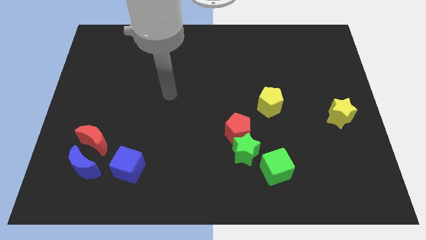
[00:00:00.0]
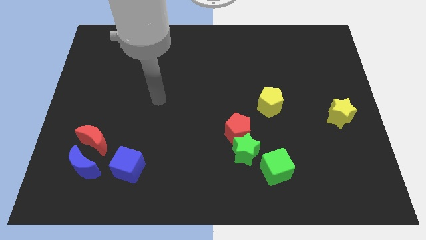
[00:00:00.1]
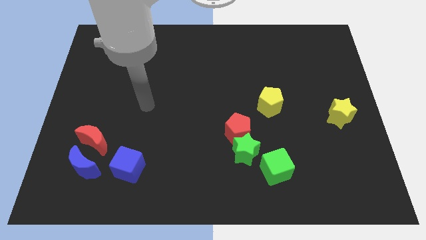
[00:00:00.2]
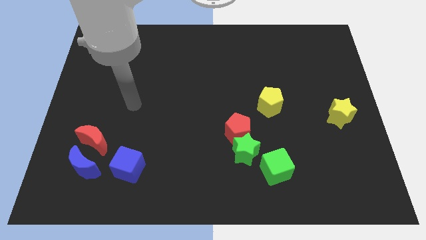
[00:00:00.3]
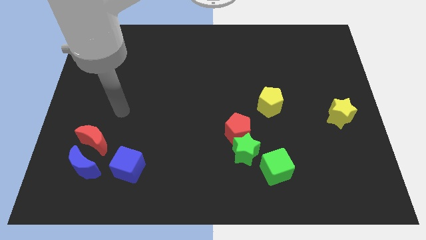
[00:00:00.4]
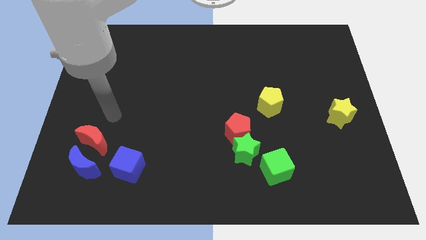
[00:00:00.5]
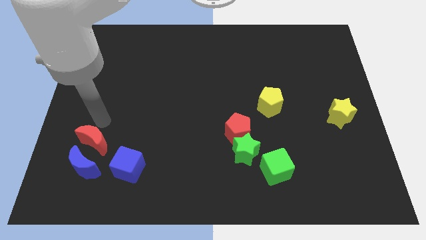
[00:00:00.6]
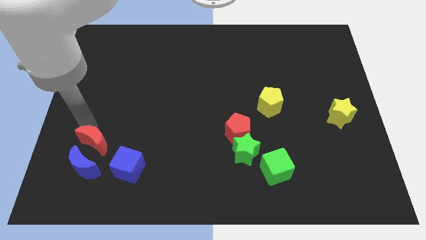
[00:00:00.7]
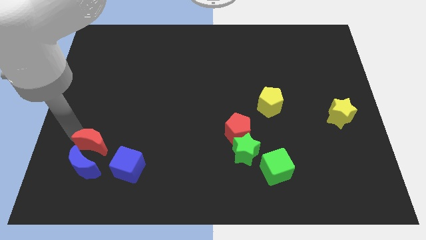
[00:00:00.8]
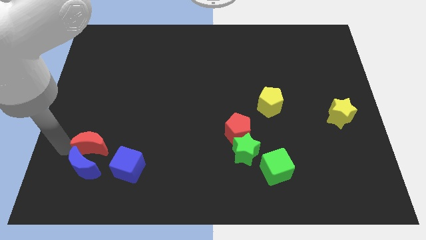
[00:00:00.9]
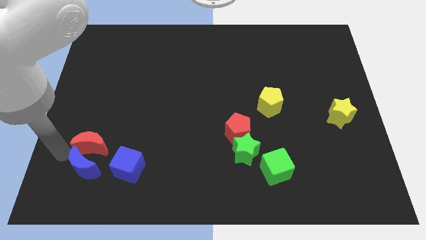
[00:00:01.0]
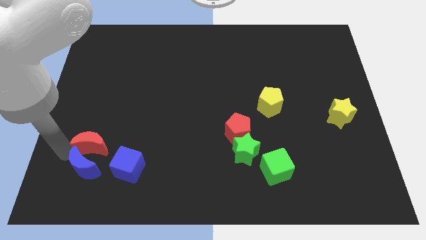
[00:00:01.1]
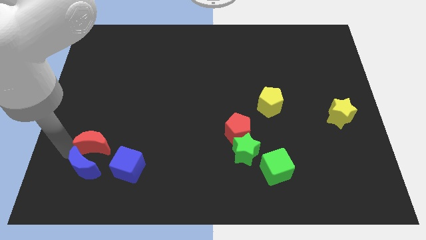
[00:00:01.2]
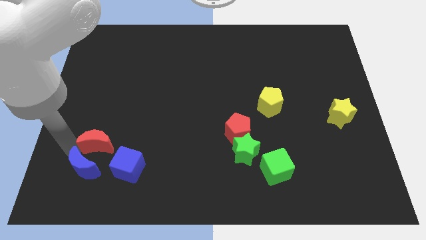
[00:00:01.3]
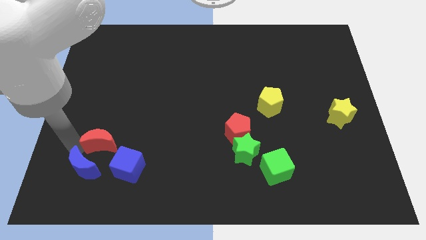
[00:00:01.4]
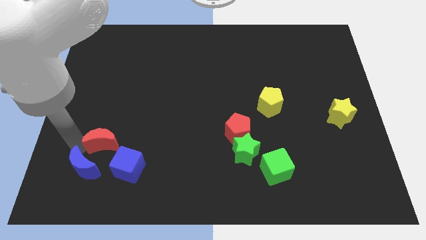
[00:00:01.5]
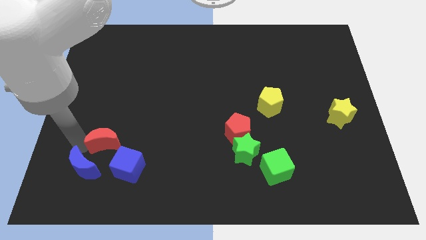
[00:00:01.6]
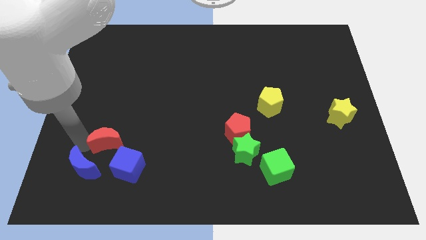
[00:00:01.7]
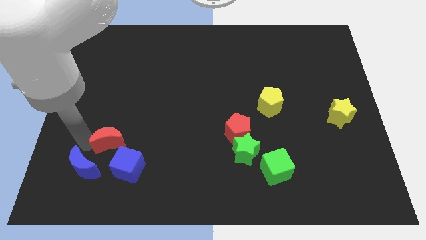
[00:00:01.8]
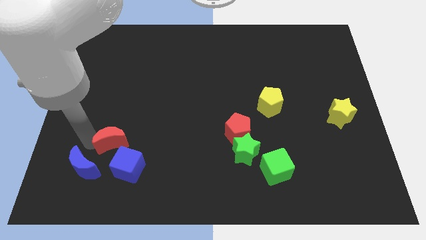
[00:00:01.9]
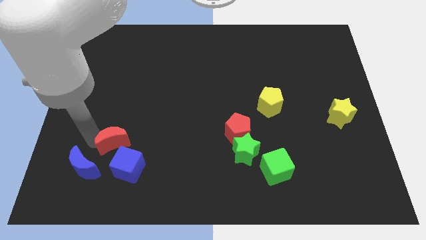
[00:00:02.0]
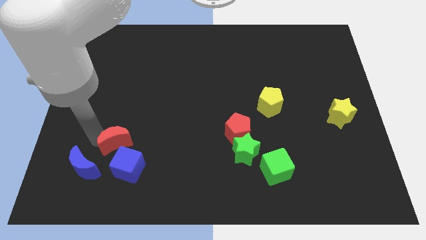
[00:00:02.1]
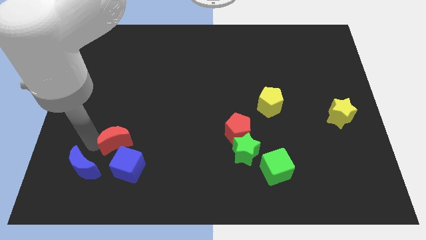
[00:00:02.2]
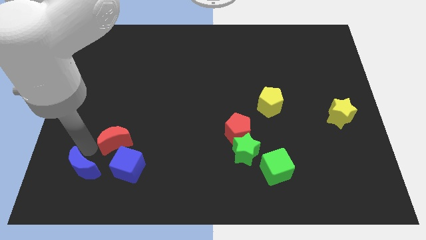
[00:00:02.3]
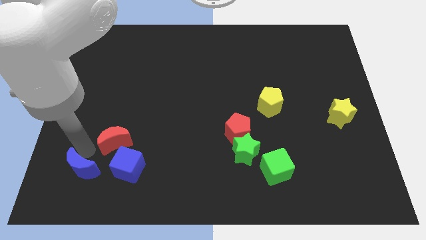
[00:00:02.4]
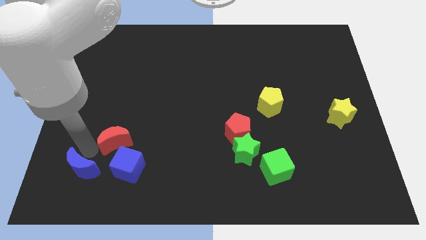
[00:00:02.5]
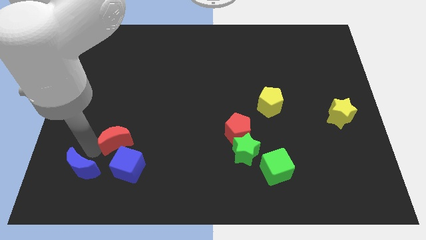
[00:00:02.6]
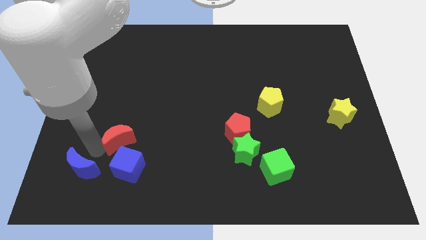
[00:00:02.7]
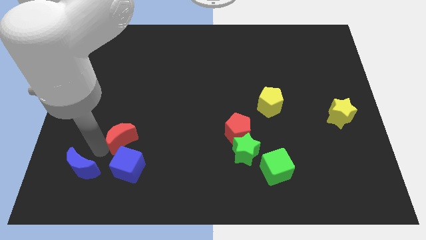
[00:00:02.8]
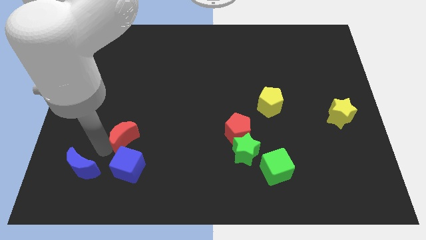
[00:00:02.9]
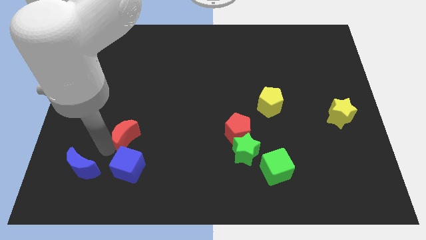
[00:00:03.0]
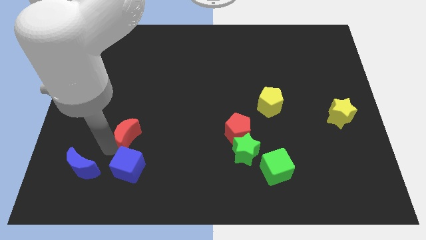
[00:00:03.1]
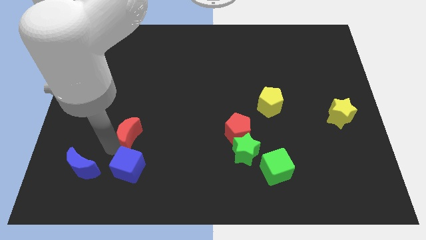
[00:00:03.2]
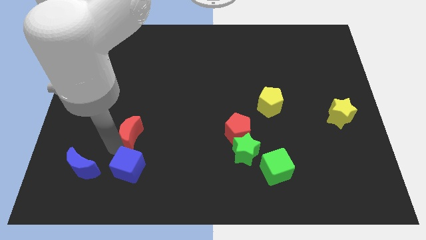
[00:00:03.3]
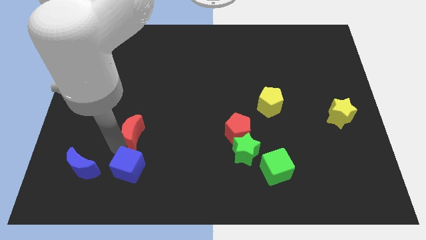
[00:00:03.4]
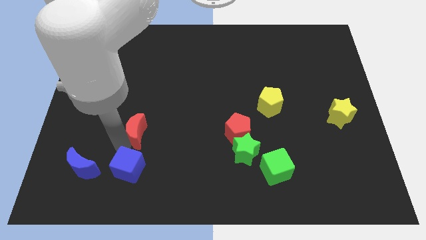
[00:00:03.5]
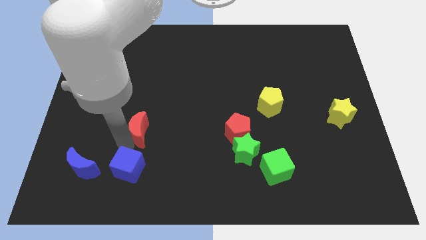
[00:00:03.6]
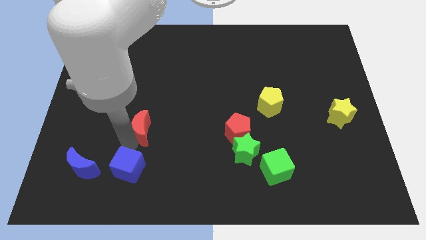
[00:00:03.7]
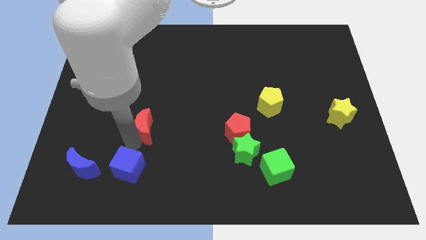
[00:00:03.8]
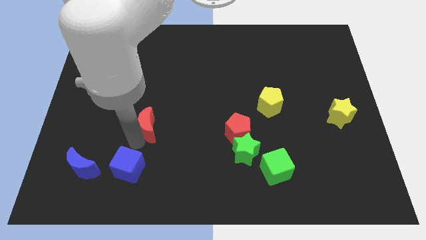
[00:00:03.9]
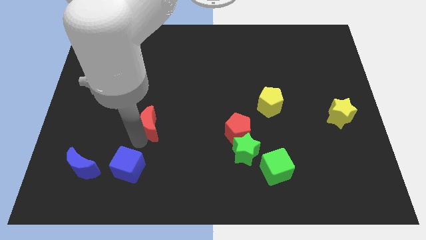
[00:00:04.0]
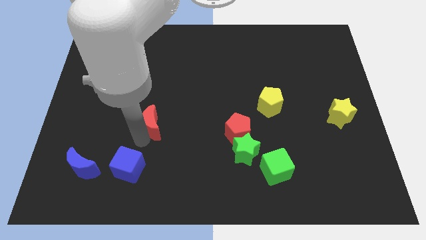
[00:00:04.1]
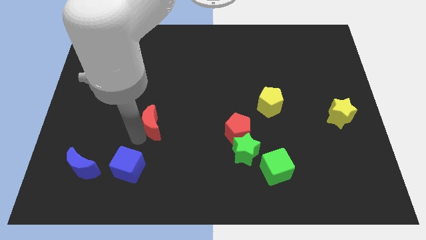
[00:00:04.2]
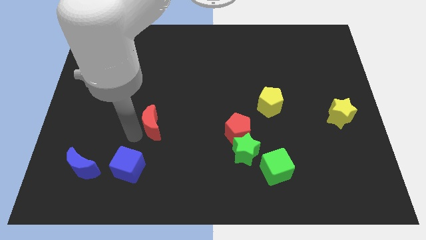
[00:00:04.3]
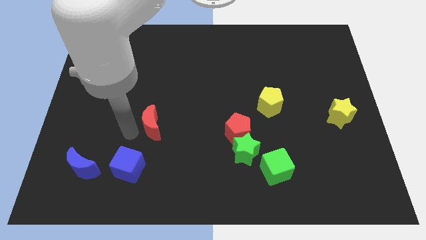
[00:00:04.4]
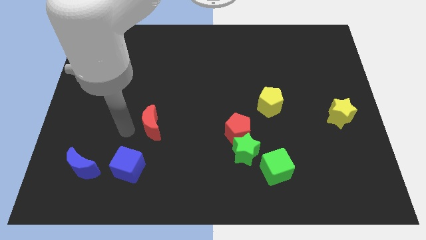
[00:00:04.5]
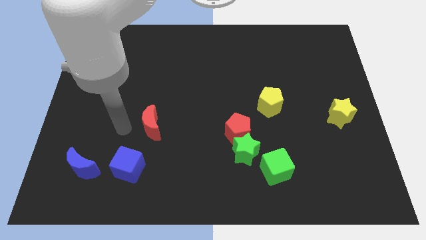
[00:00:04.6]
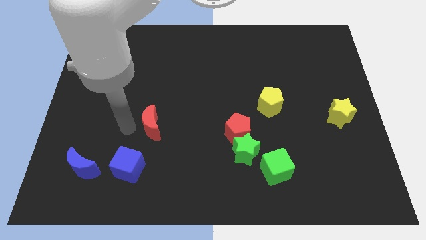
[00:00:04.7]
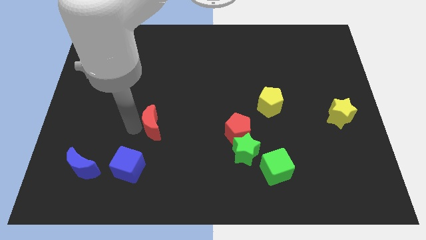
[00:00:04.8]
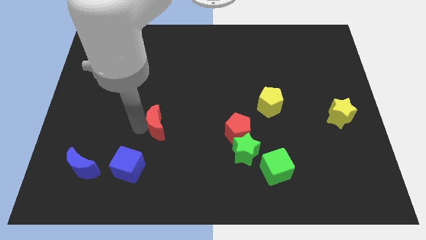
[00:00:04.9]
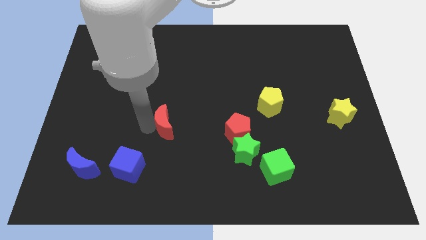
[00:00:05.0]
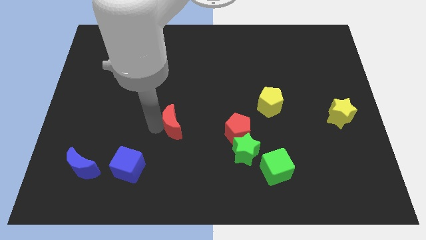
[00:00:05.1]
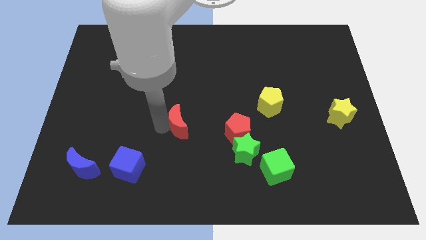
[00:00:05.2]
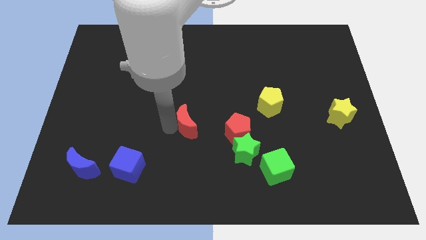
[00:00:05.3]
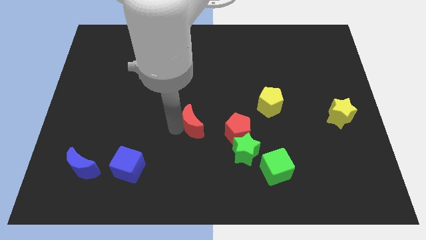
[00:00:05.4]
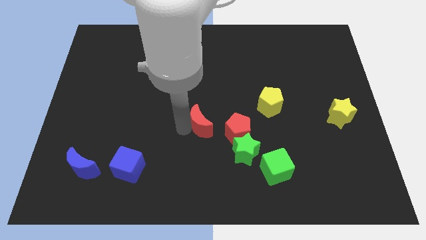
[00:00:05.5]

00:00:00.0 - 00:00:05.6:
put the red moon to the top left side of the red pentagon

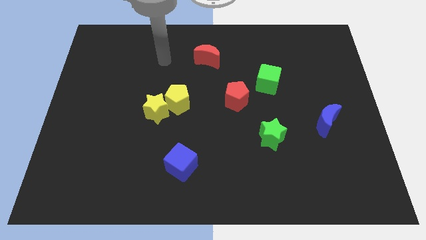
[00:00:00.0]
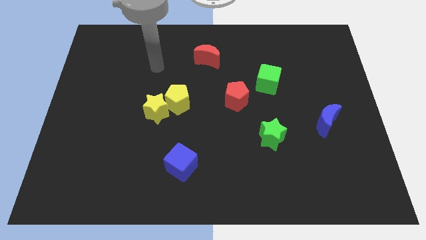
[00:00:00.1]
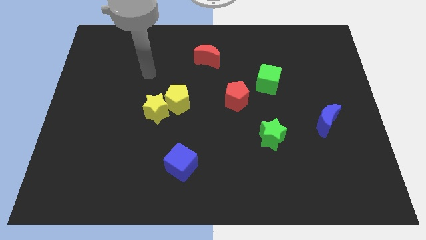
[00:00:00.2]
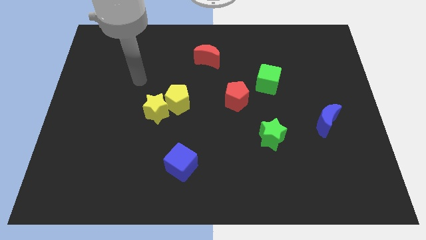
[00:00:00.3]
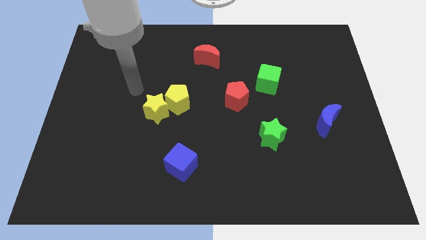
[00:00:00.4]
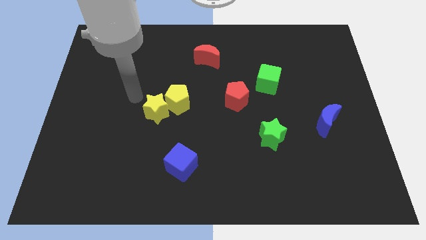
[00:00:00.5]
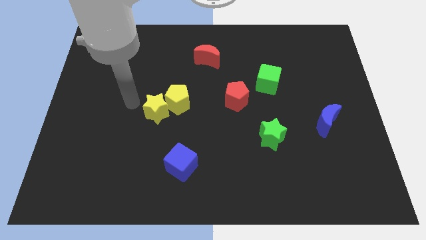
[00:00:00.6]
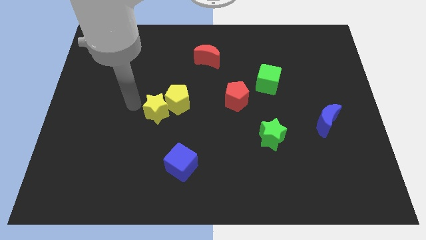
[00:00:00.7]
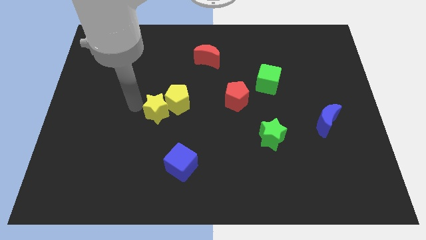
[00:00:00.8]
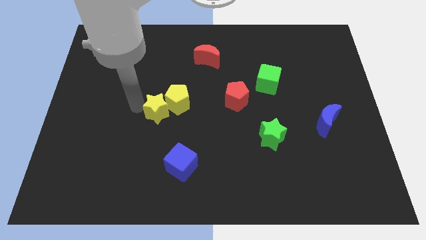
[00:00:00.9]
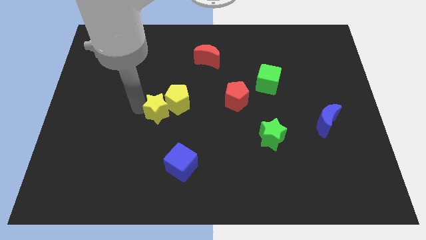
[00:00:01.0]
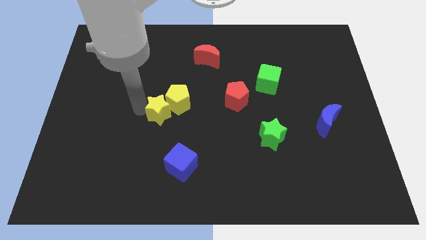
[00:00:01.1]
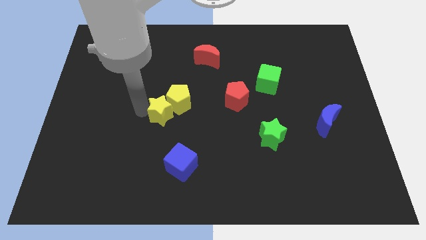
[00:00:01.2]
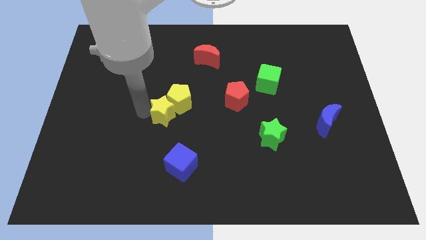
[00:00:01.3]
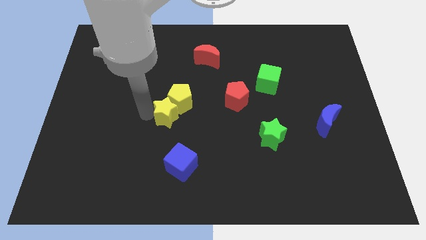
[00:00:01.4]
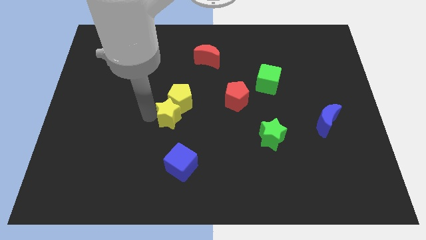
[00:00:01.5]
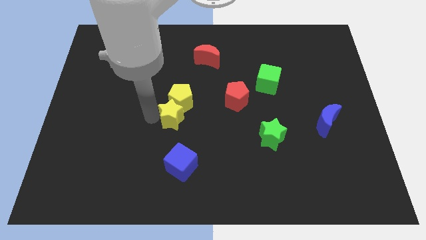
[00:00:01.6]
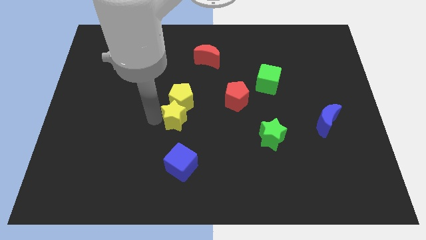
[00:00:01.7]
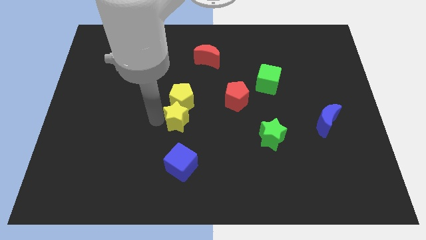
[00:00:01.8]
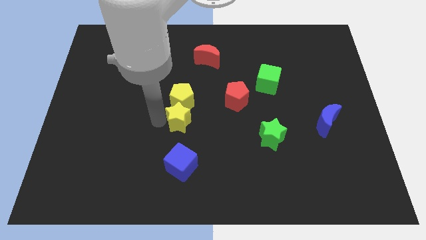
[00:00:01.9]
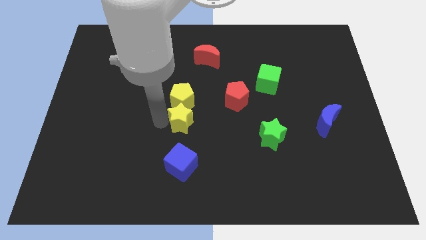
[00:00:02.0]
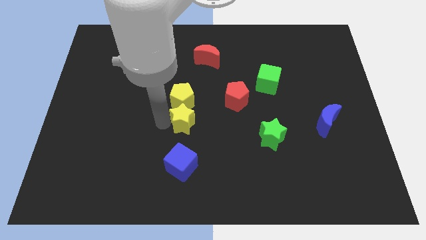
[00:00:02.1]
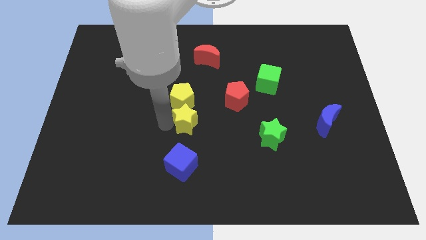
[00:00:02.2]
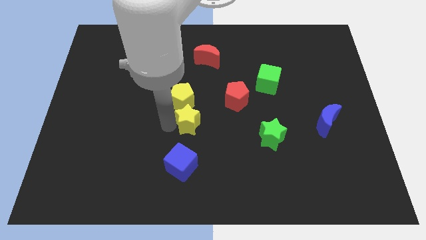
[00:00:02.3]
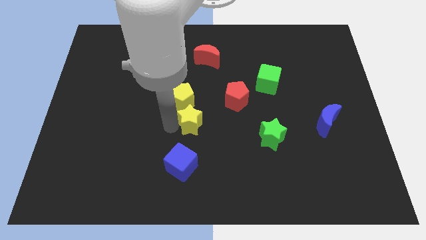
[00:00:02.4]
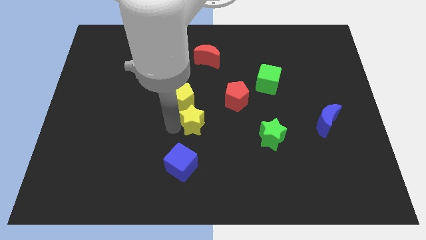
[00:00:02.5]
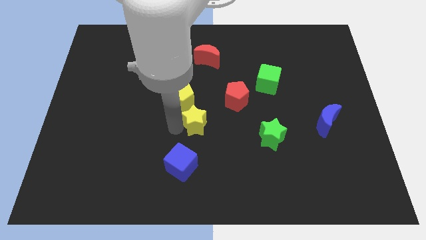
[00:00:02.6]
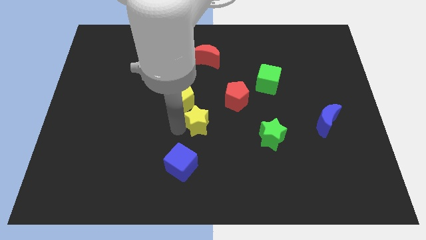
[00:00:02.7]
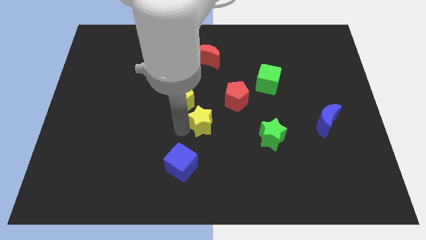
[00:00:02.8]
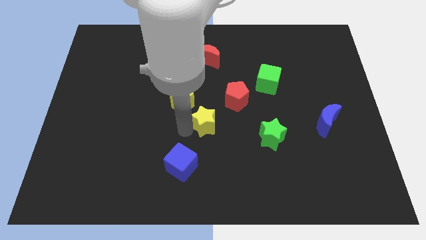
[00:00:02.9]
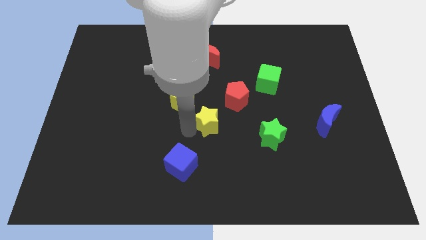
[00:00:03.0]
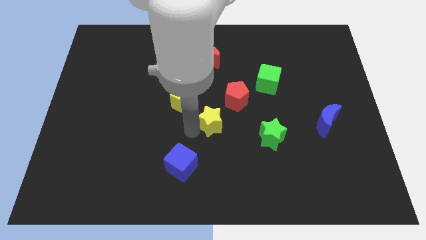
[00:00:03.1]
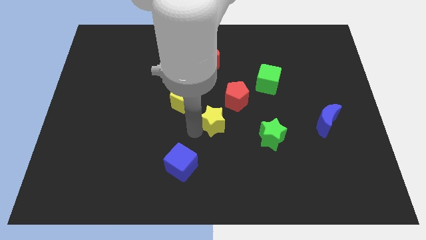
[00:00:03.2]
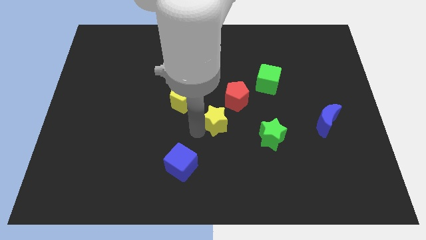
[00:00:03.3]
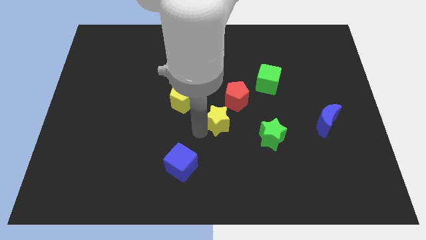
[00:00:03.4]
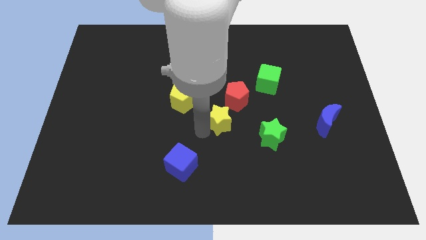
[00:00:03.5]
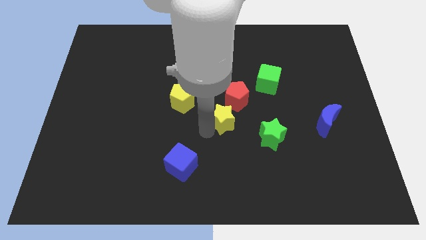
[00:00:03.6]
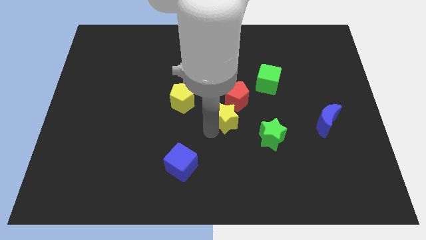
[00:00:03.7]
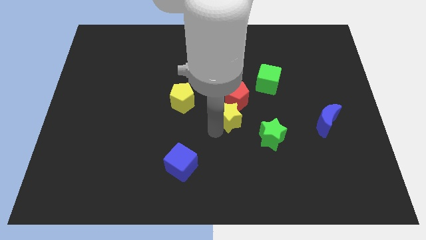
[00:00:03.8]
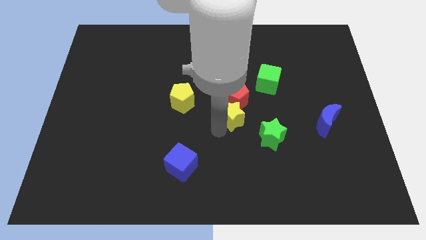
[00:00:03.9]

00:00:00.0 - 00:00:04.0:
move the yellow star to the bottom right side of the red pentagon
